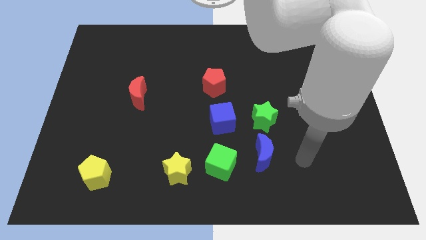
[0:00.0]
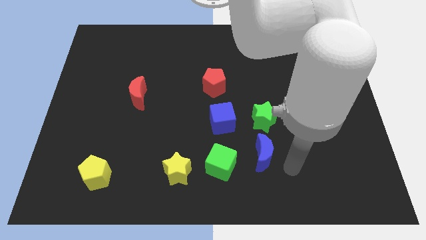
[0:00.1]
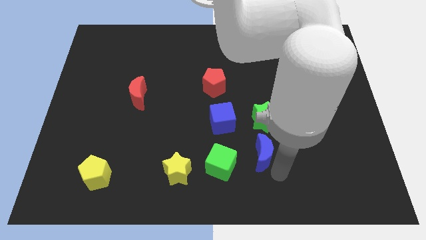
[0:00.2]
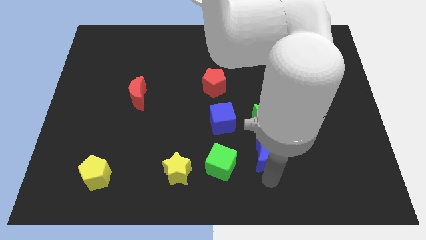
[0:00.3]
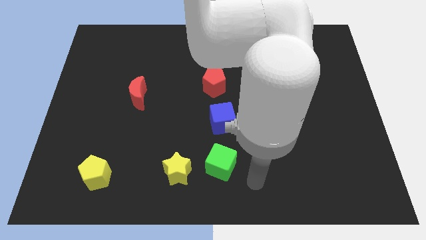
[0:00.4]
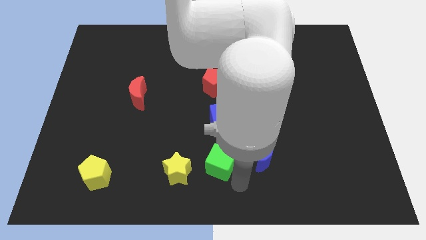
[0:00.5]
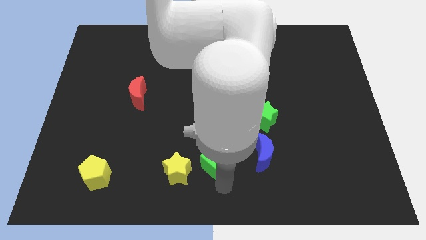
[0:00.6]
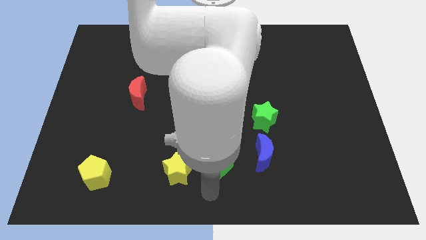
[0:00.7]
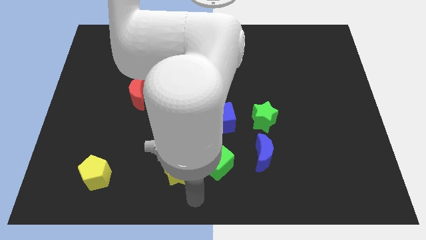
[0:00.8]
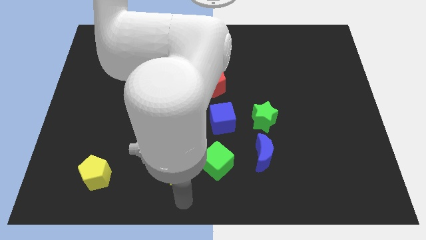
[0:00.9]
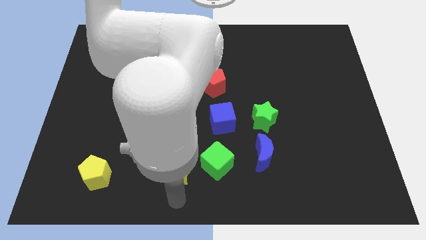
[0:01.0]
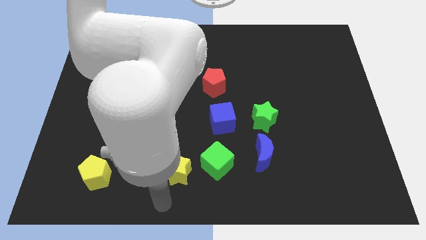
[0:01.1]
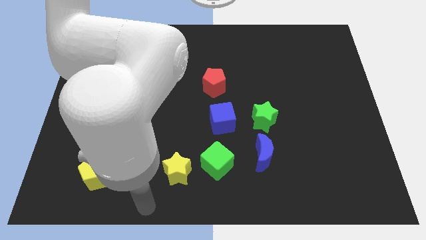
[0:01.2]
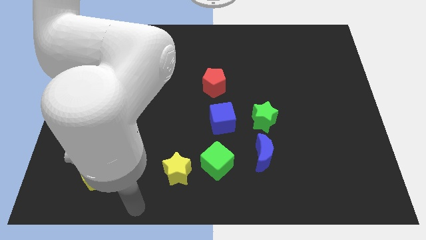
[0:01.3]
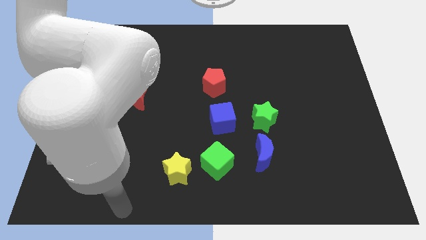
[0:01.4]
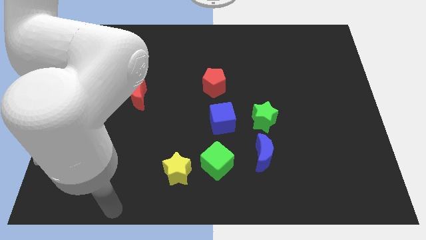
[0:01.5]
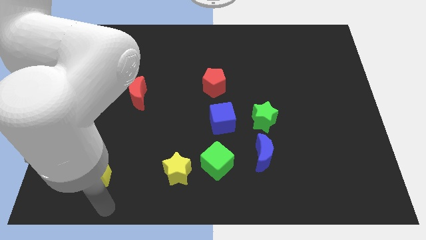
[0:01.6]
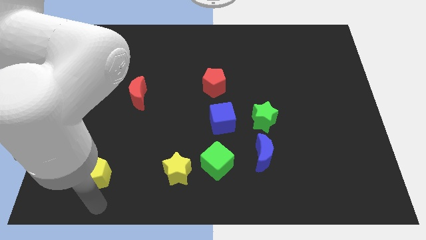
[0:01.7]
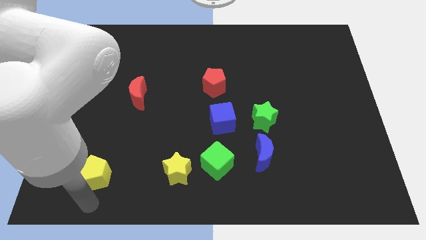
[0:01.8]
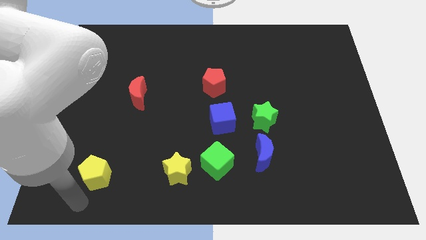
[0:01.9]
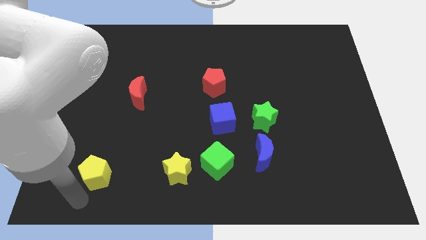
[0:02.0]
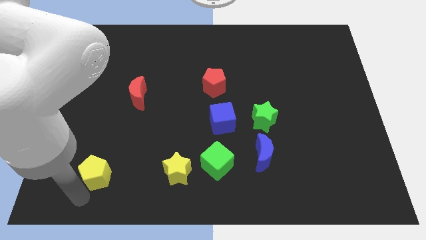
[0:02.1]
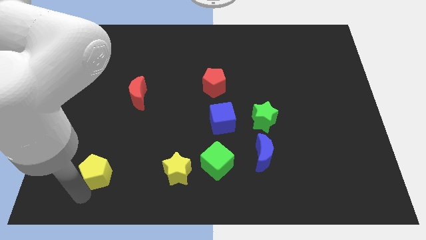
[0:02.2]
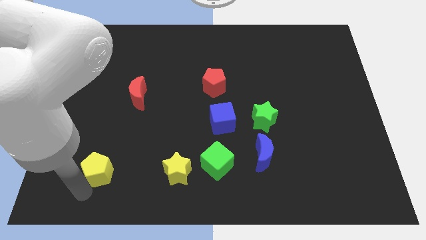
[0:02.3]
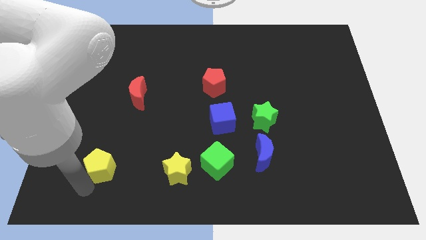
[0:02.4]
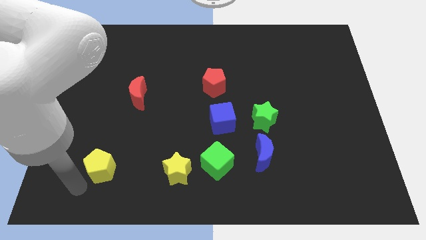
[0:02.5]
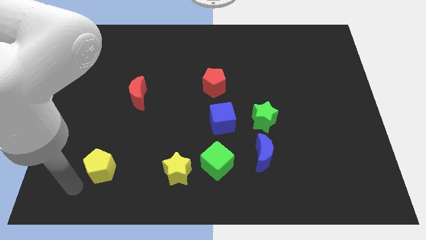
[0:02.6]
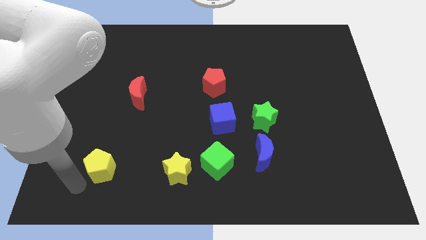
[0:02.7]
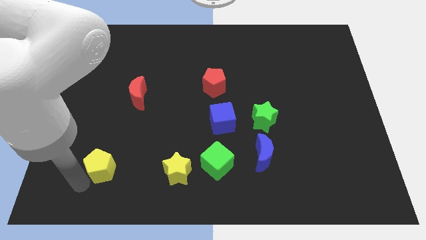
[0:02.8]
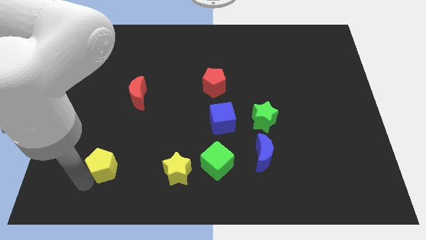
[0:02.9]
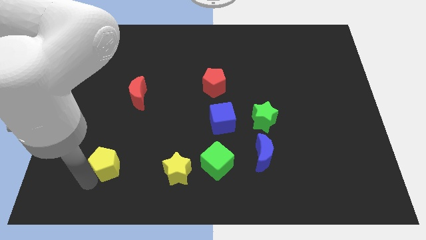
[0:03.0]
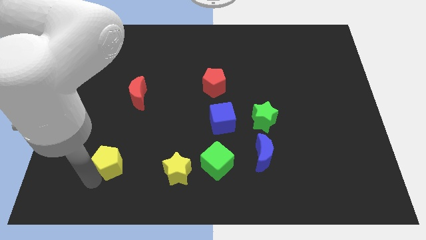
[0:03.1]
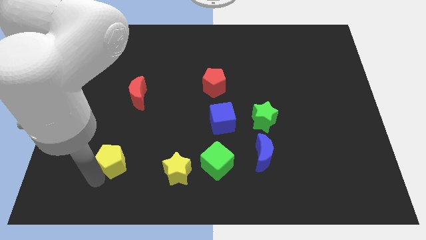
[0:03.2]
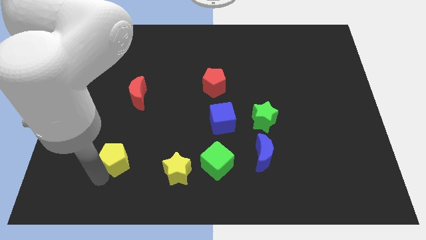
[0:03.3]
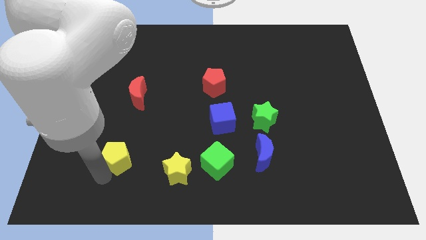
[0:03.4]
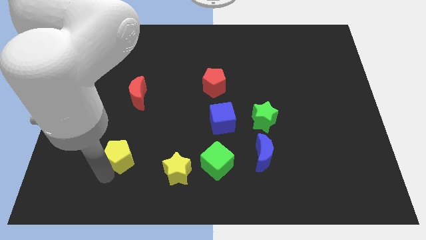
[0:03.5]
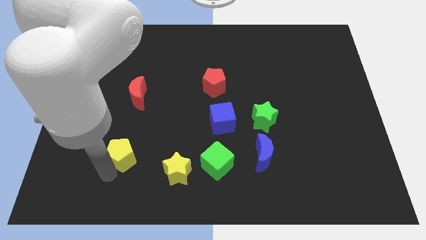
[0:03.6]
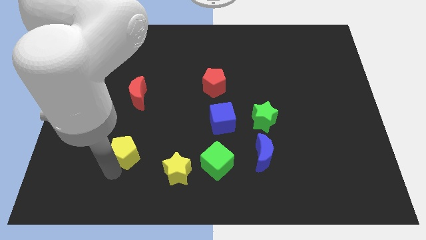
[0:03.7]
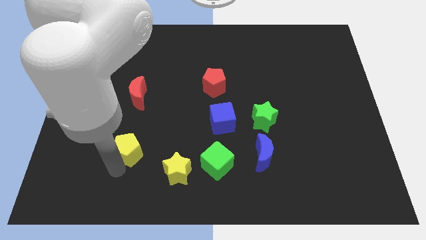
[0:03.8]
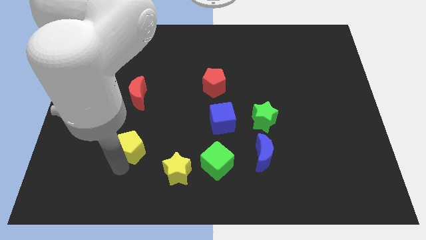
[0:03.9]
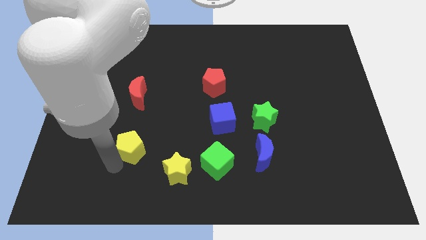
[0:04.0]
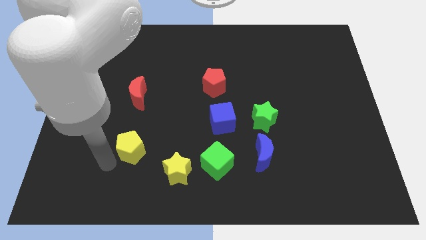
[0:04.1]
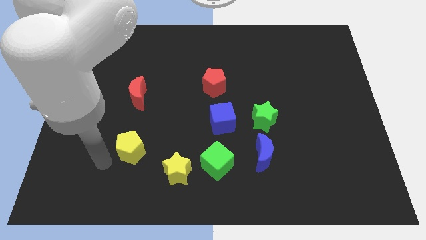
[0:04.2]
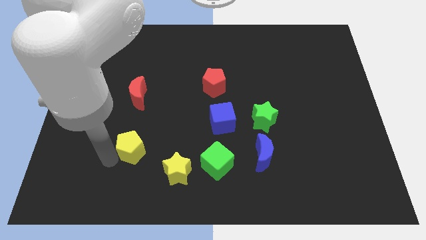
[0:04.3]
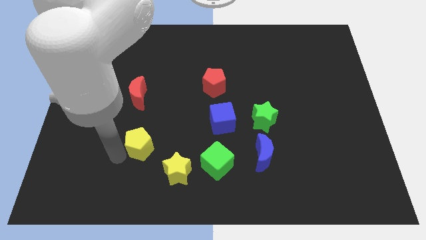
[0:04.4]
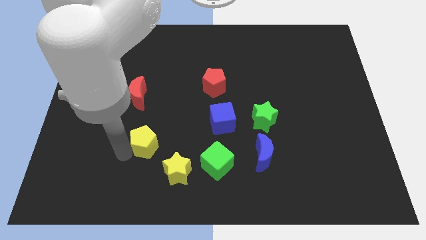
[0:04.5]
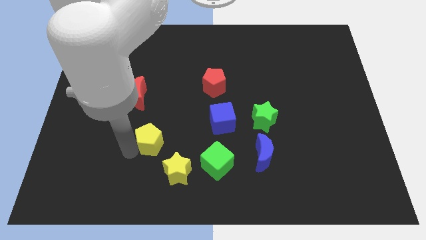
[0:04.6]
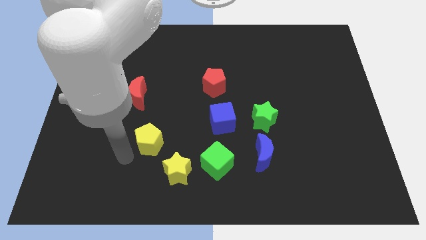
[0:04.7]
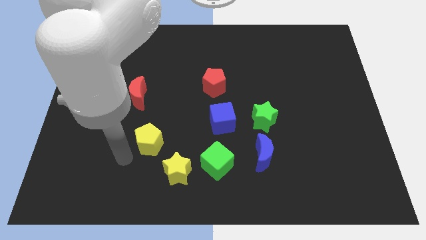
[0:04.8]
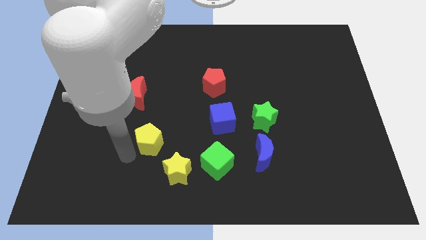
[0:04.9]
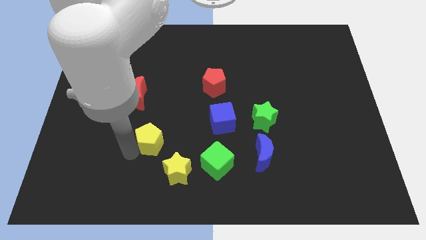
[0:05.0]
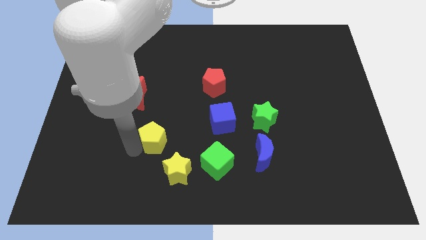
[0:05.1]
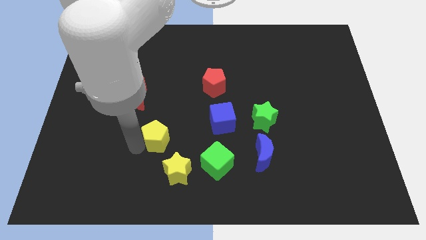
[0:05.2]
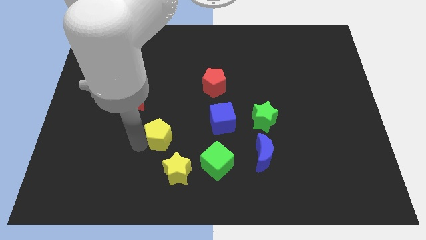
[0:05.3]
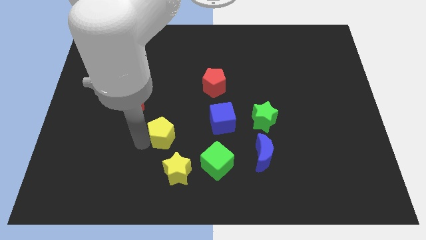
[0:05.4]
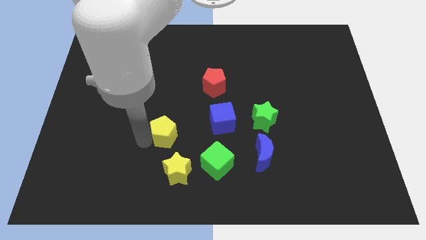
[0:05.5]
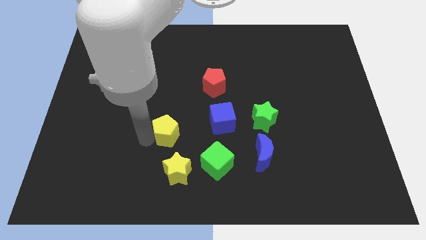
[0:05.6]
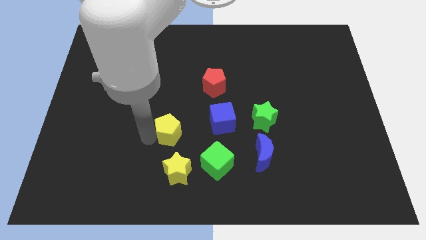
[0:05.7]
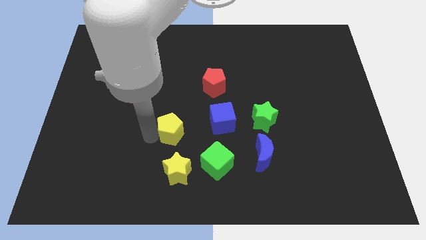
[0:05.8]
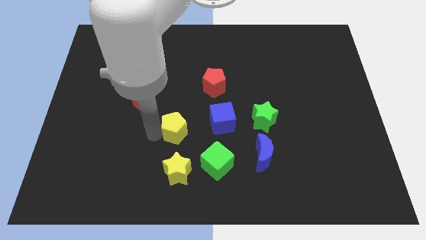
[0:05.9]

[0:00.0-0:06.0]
move the yellow pentagon to the middle
